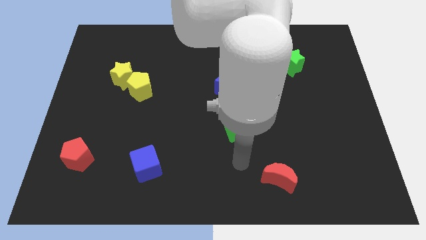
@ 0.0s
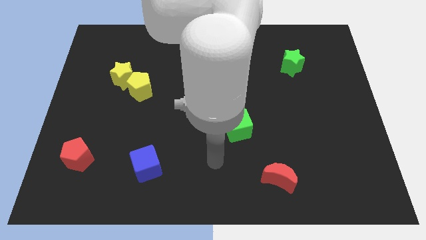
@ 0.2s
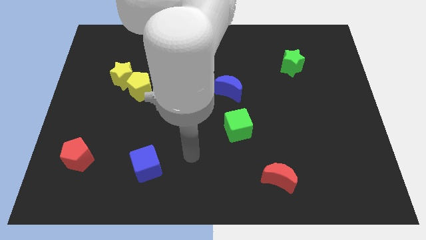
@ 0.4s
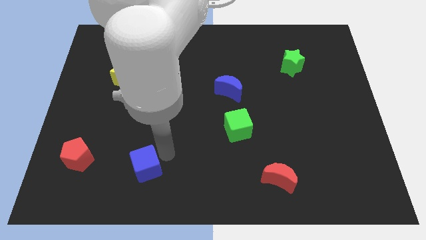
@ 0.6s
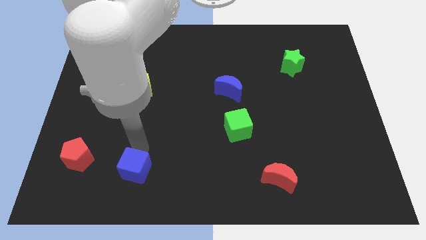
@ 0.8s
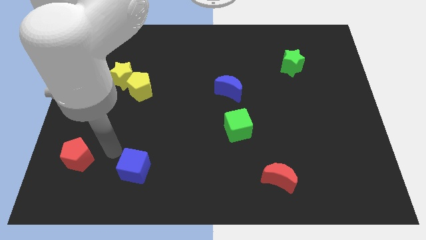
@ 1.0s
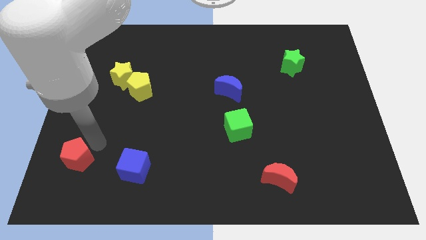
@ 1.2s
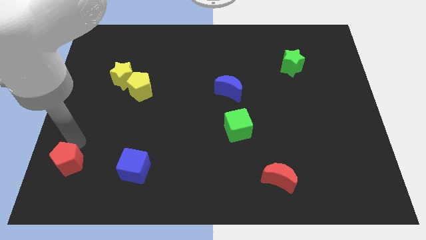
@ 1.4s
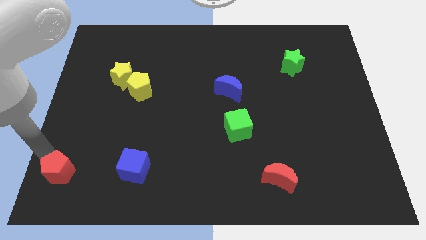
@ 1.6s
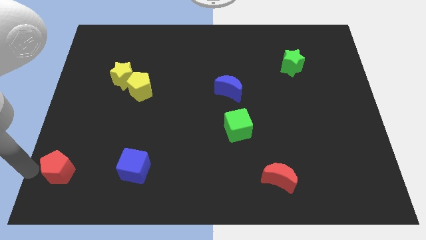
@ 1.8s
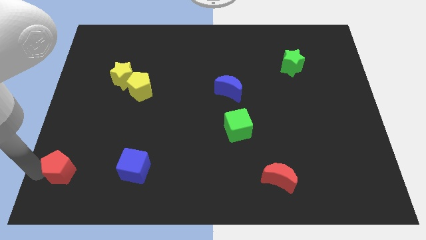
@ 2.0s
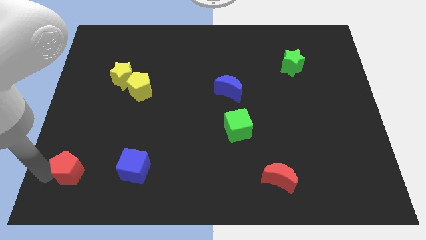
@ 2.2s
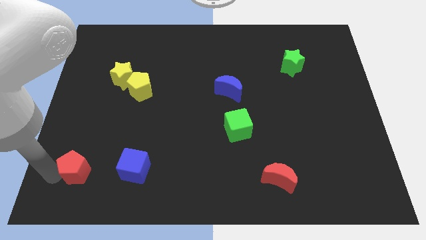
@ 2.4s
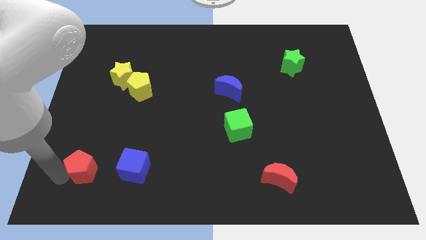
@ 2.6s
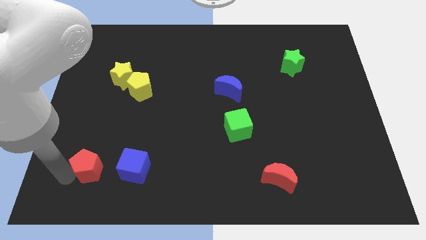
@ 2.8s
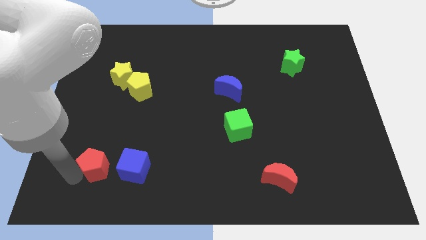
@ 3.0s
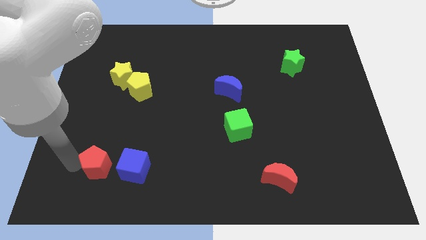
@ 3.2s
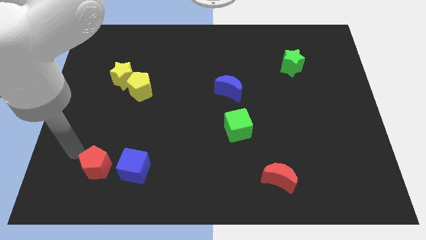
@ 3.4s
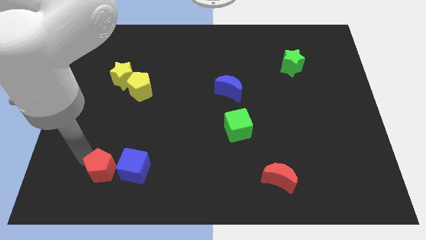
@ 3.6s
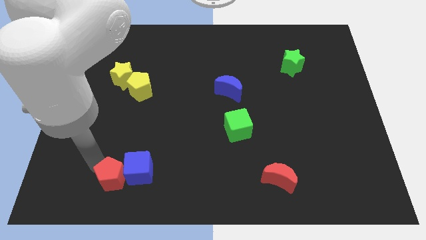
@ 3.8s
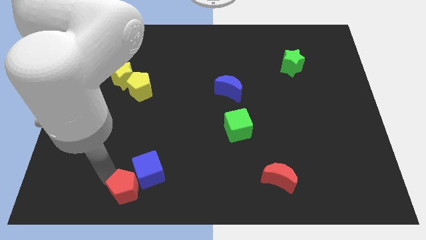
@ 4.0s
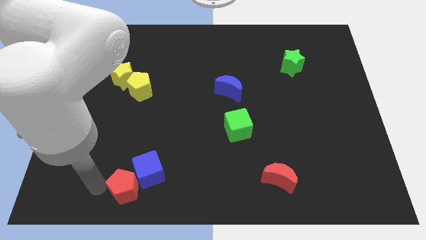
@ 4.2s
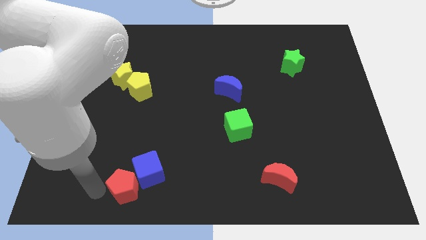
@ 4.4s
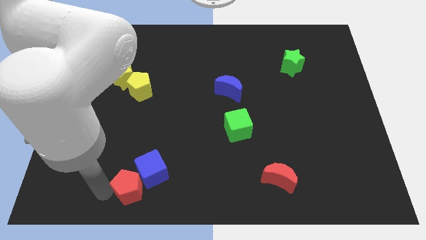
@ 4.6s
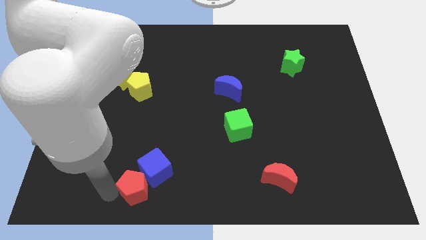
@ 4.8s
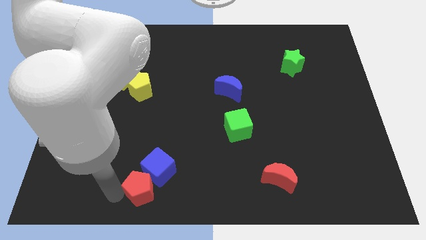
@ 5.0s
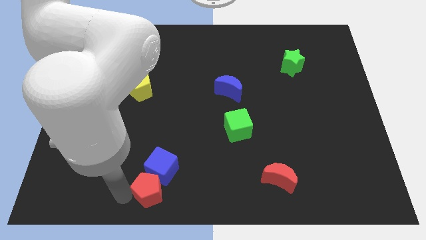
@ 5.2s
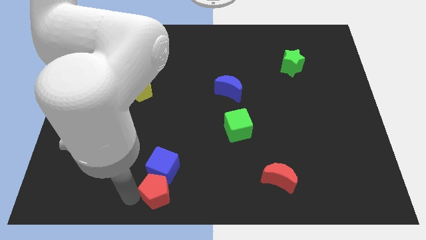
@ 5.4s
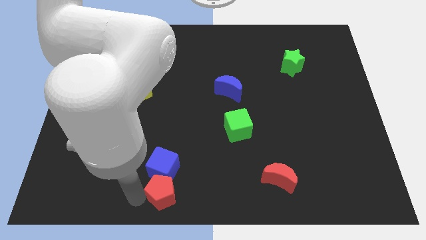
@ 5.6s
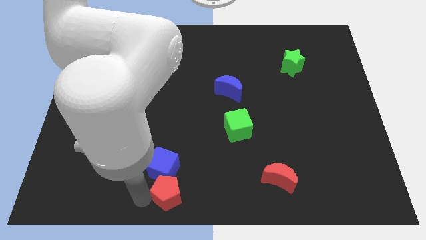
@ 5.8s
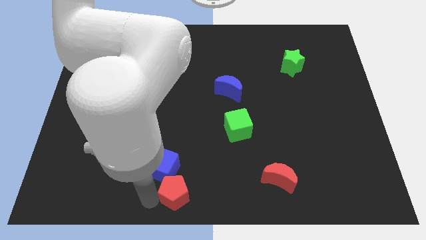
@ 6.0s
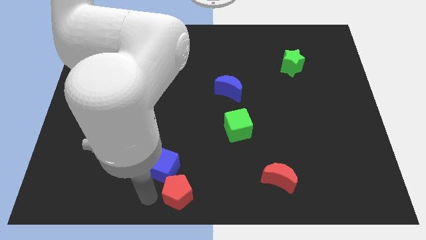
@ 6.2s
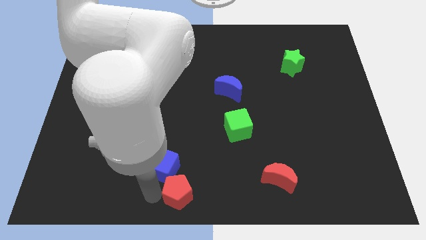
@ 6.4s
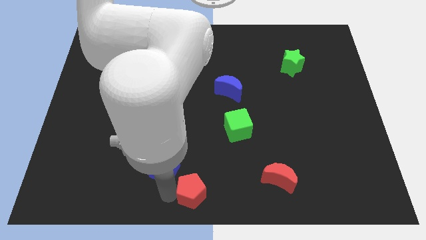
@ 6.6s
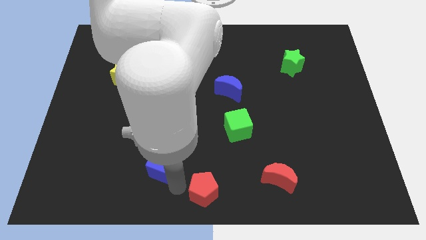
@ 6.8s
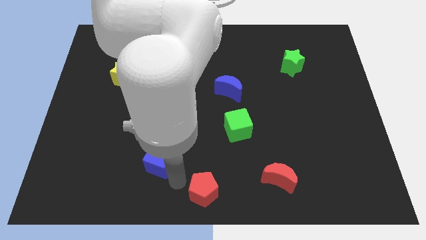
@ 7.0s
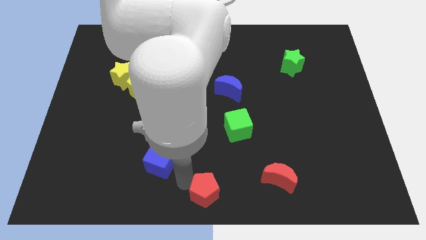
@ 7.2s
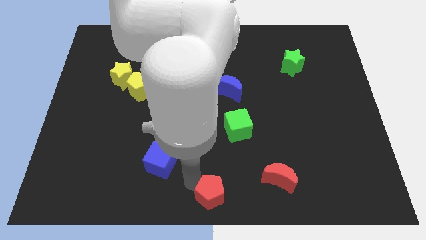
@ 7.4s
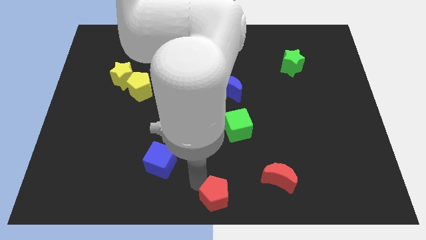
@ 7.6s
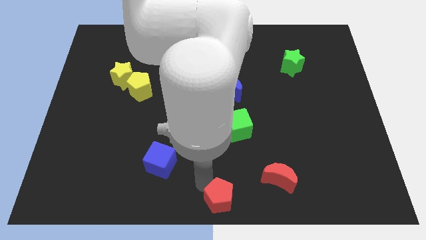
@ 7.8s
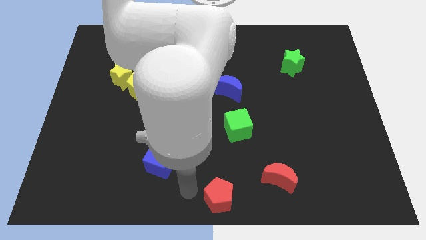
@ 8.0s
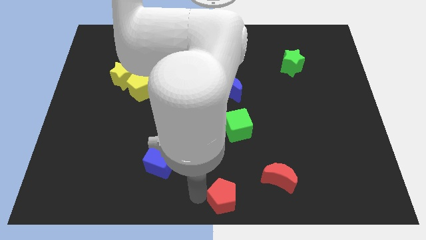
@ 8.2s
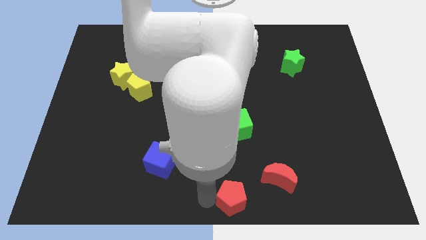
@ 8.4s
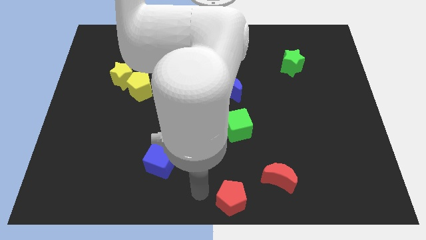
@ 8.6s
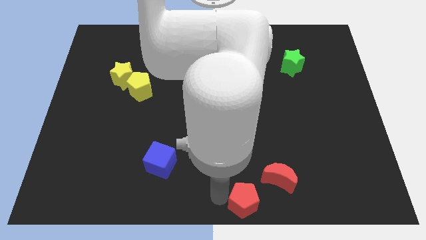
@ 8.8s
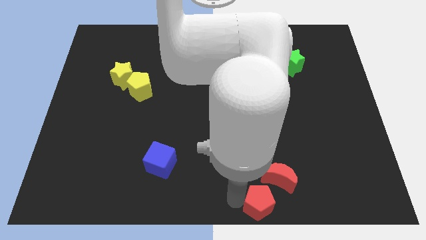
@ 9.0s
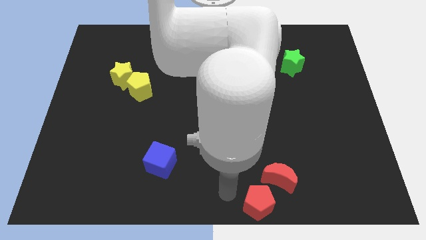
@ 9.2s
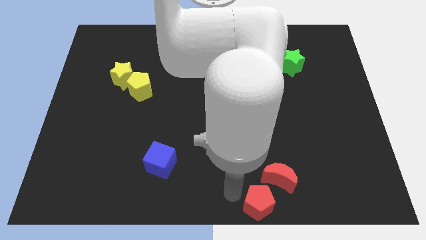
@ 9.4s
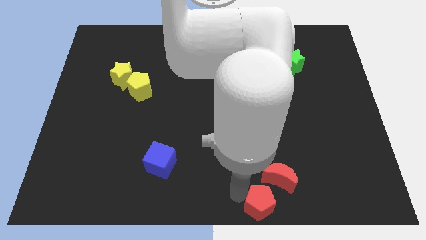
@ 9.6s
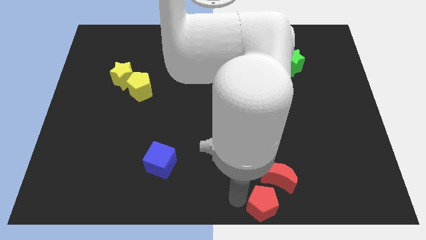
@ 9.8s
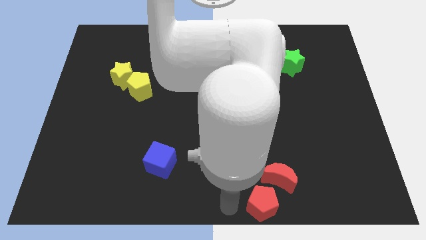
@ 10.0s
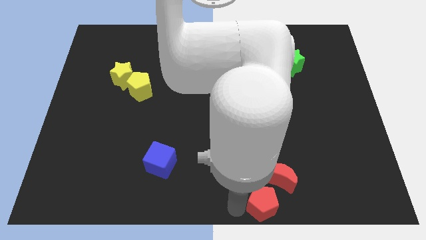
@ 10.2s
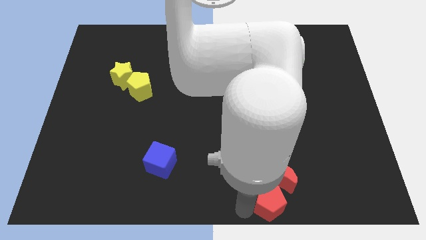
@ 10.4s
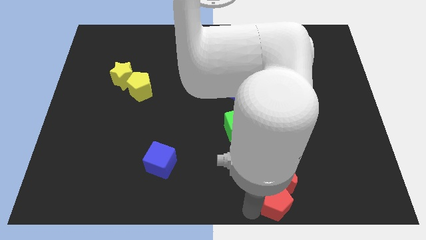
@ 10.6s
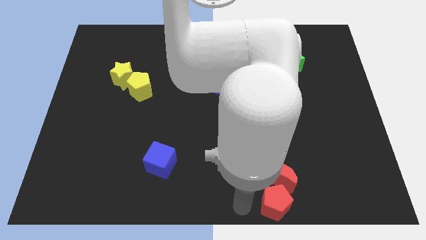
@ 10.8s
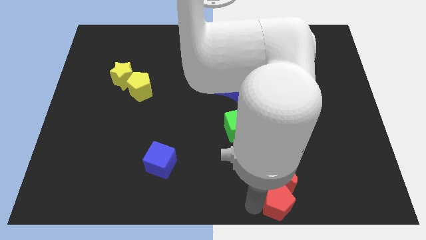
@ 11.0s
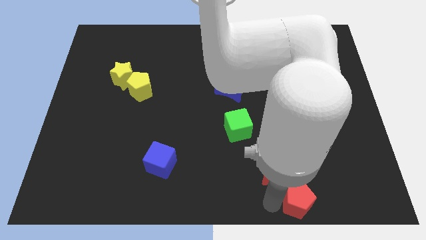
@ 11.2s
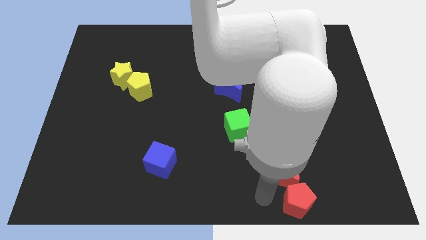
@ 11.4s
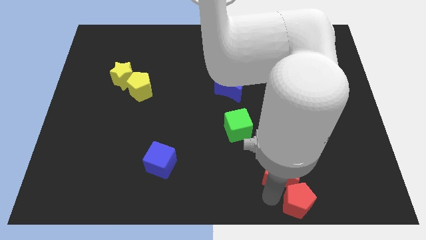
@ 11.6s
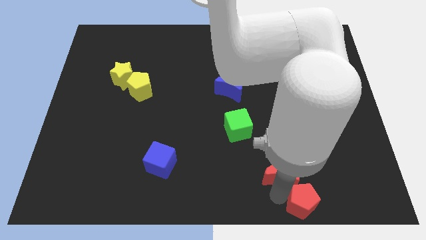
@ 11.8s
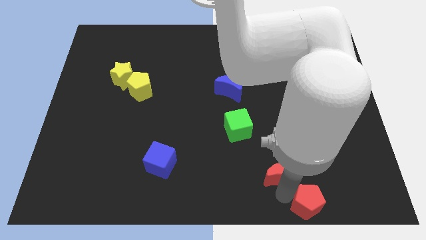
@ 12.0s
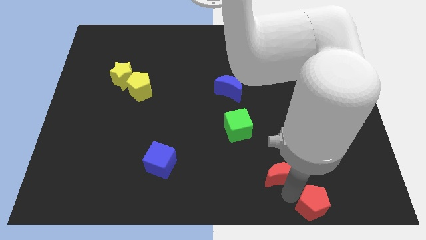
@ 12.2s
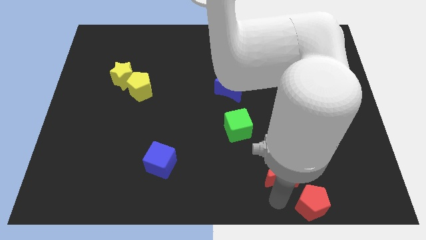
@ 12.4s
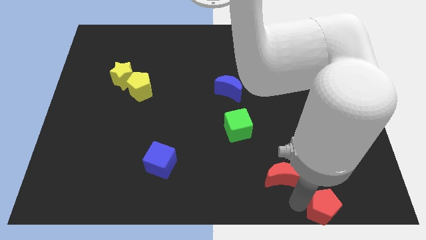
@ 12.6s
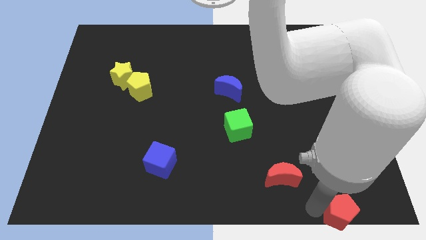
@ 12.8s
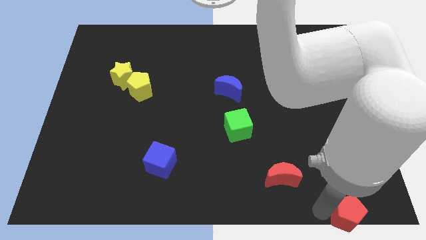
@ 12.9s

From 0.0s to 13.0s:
move the red pentagon to the bottom right of the board
